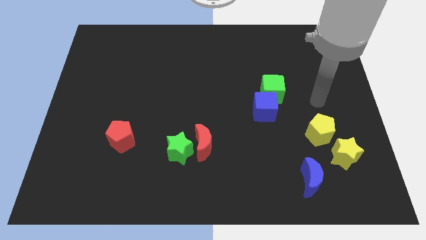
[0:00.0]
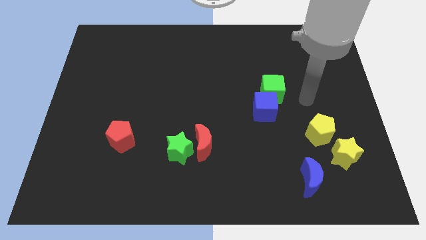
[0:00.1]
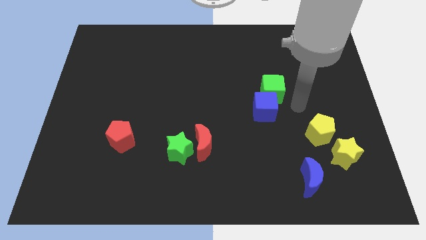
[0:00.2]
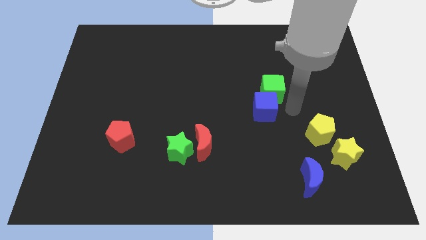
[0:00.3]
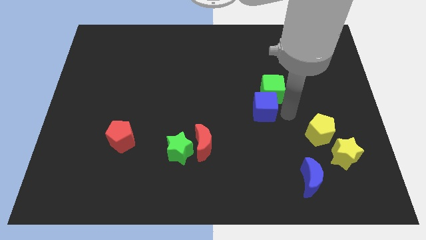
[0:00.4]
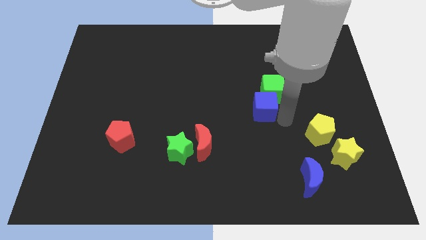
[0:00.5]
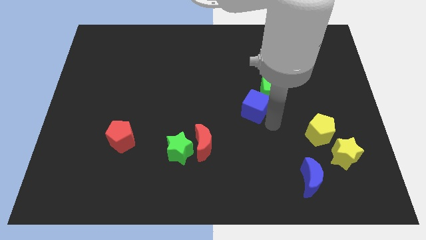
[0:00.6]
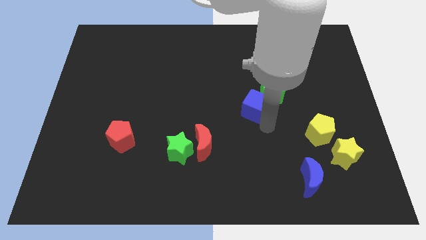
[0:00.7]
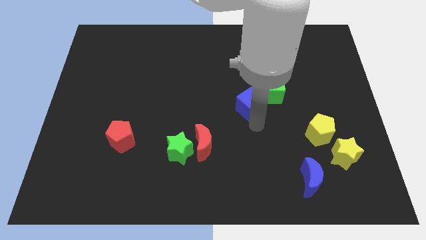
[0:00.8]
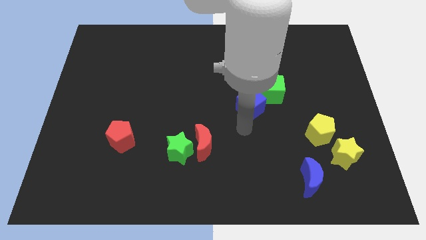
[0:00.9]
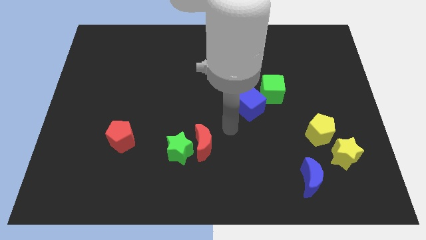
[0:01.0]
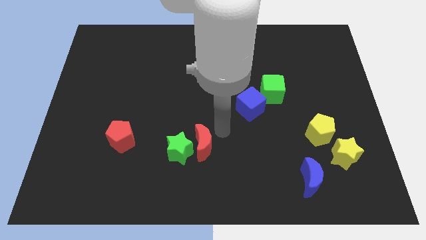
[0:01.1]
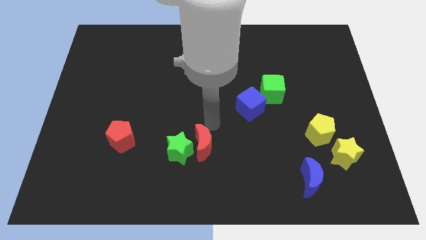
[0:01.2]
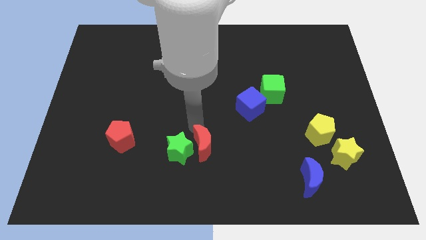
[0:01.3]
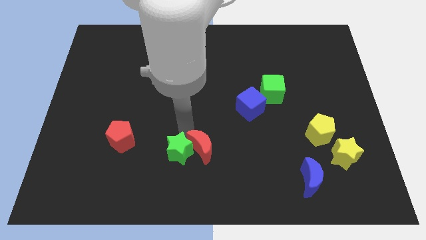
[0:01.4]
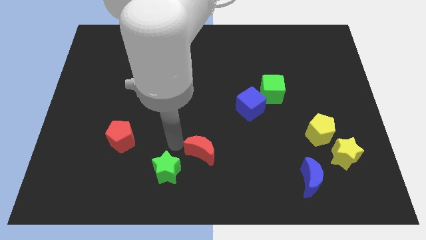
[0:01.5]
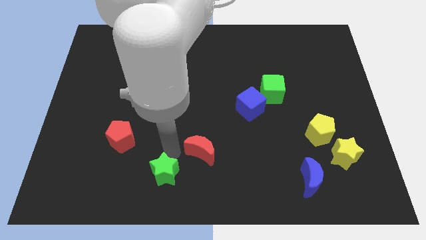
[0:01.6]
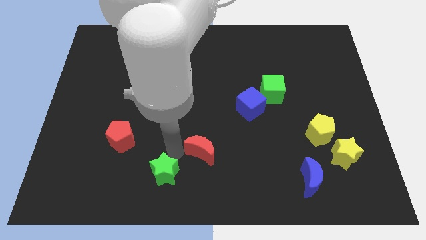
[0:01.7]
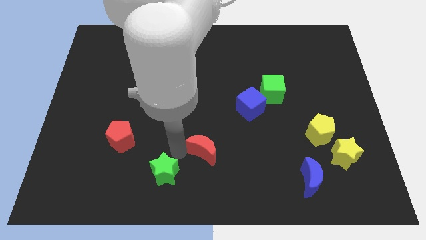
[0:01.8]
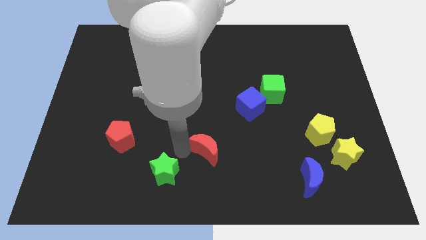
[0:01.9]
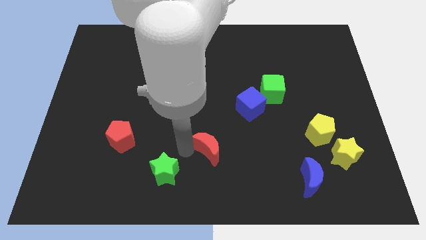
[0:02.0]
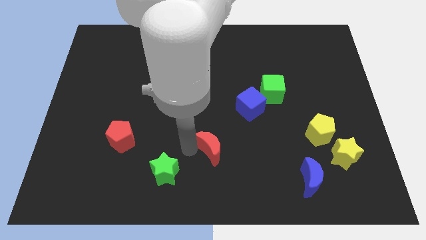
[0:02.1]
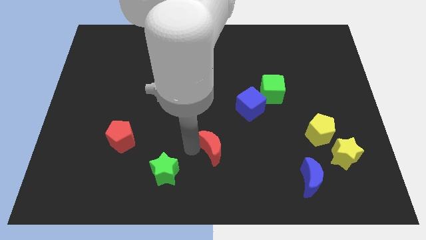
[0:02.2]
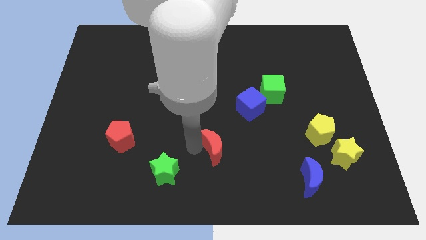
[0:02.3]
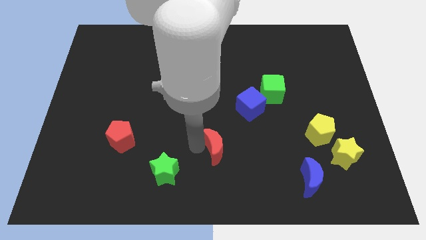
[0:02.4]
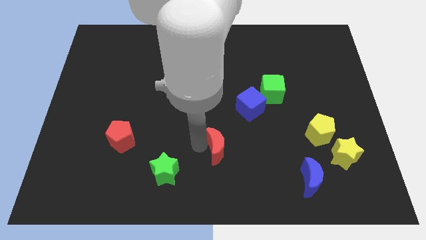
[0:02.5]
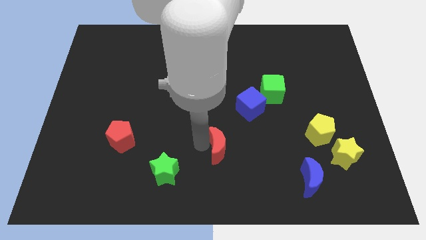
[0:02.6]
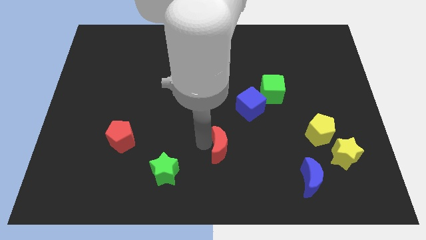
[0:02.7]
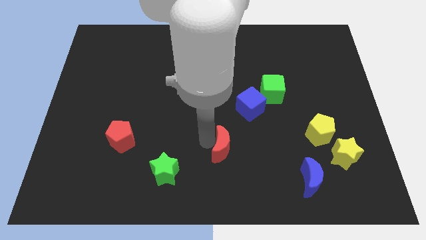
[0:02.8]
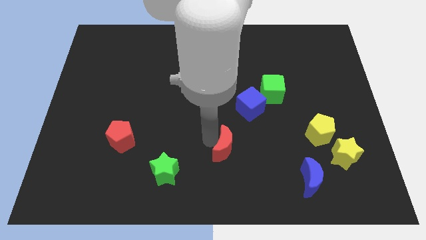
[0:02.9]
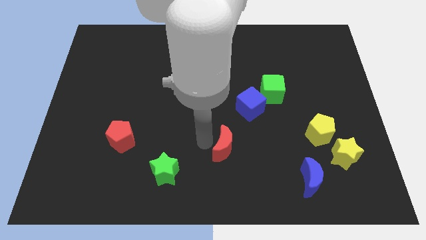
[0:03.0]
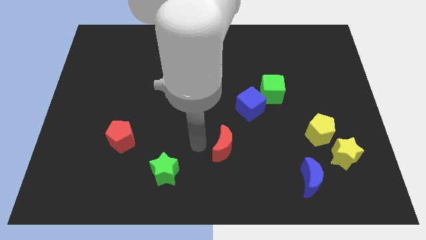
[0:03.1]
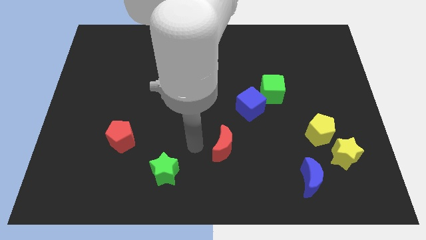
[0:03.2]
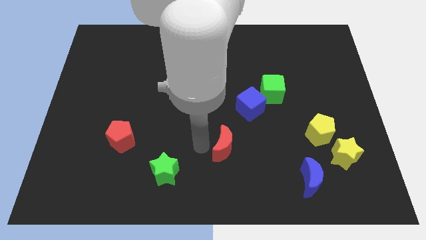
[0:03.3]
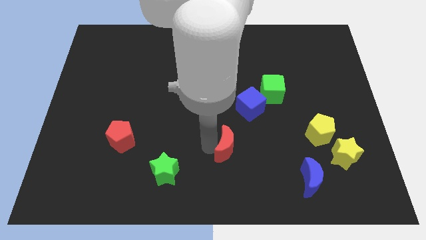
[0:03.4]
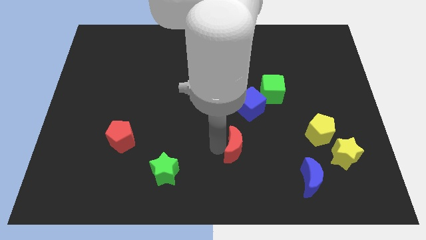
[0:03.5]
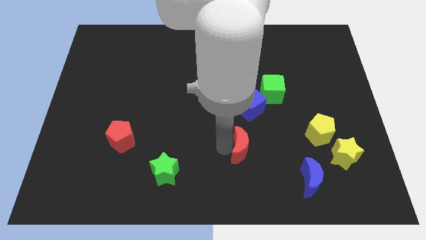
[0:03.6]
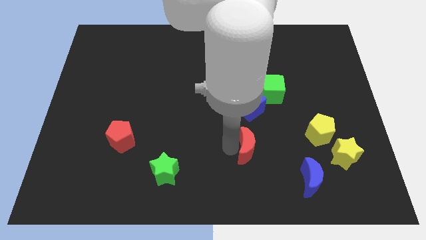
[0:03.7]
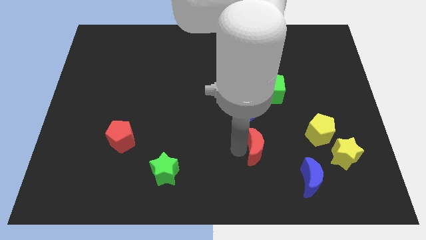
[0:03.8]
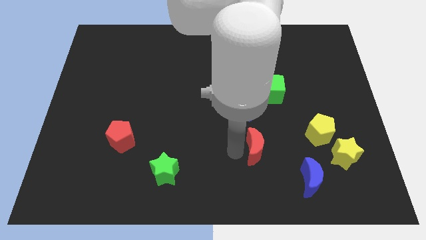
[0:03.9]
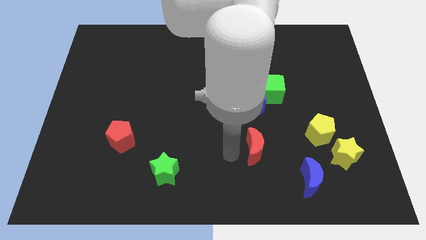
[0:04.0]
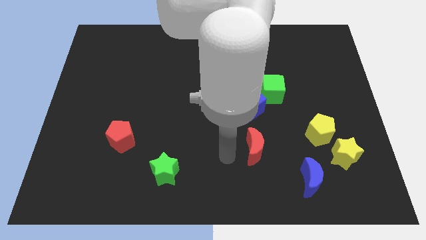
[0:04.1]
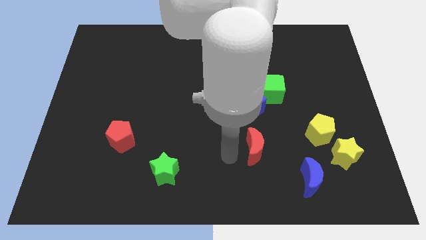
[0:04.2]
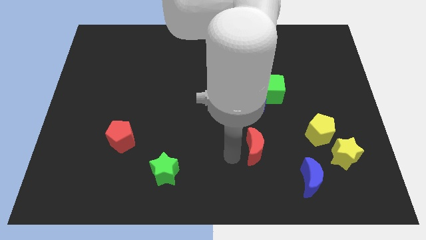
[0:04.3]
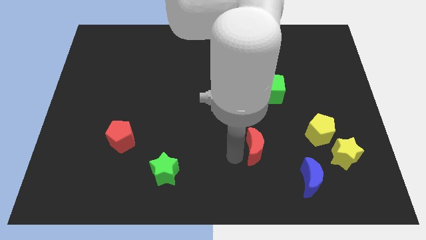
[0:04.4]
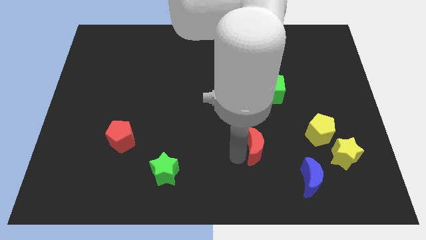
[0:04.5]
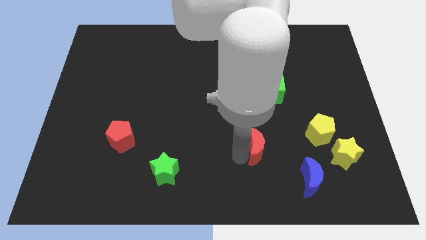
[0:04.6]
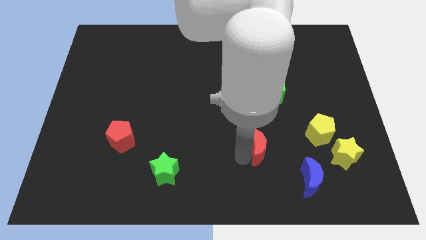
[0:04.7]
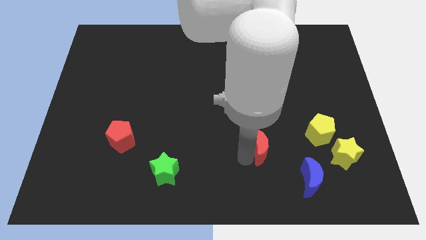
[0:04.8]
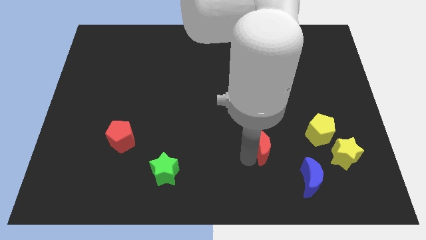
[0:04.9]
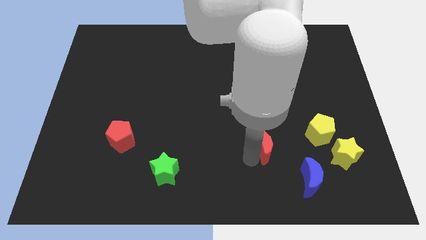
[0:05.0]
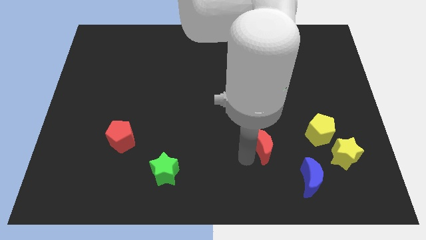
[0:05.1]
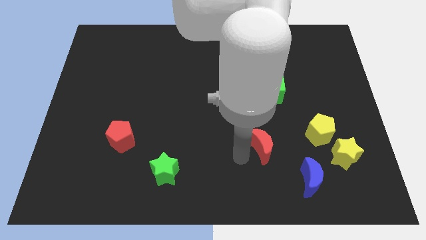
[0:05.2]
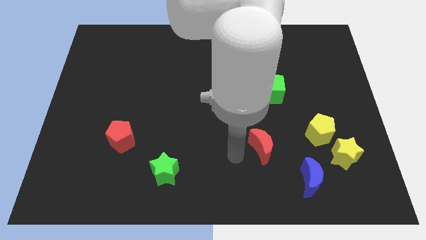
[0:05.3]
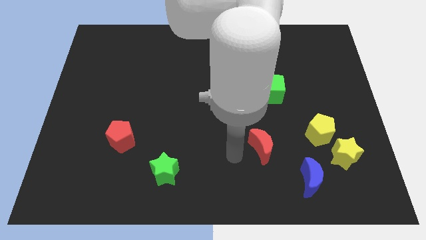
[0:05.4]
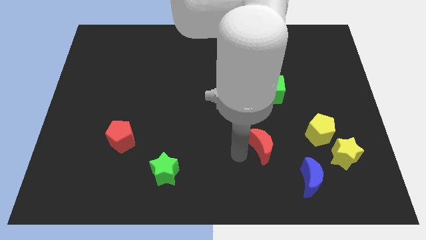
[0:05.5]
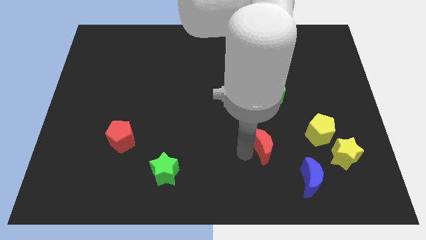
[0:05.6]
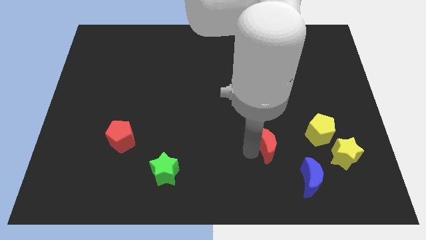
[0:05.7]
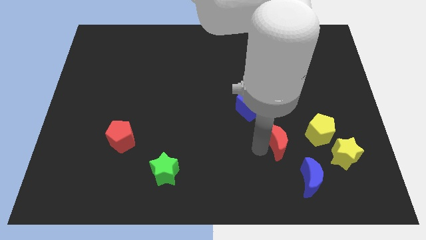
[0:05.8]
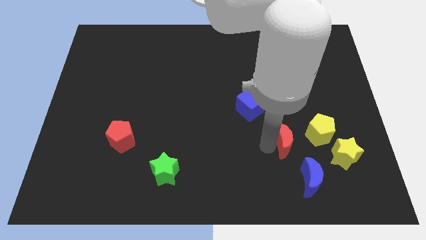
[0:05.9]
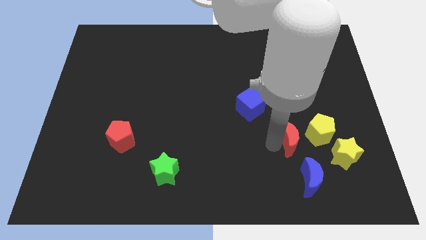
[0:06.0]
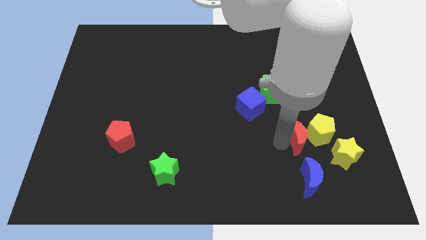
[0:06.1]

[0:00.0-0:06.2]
slide the red moon to the yellow pentagon
